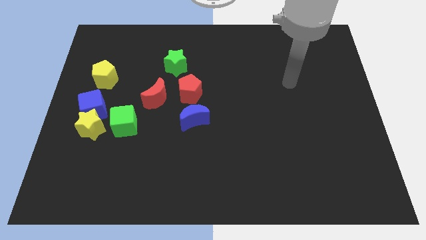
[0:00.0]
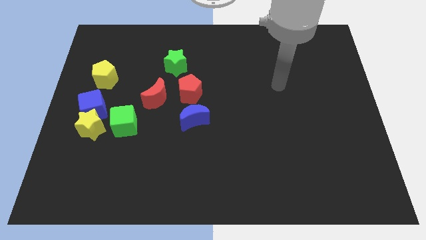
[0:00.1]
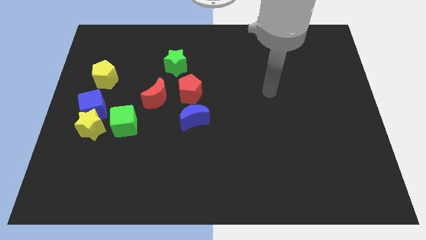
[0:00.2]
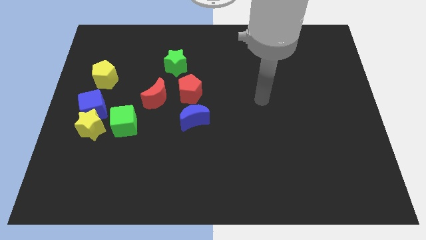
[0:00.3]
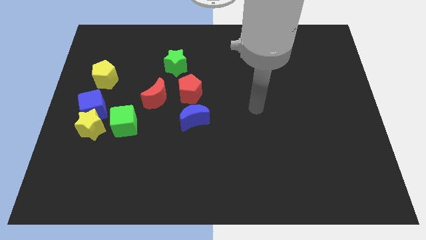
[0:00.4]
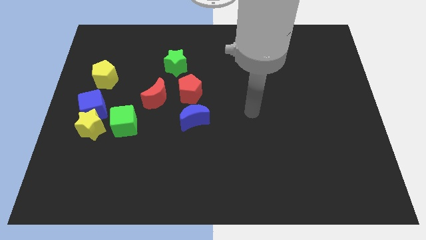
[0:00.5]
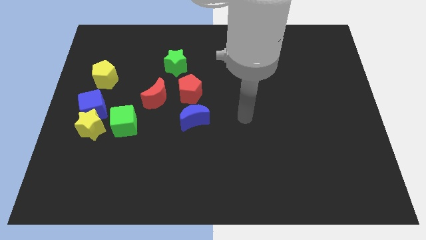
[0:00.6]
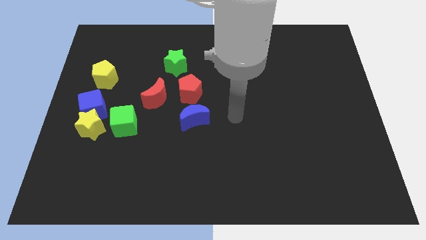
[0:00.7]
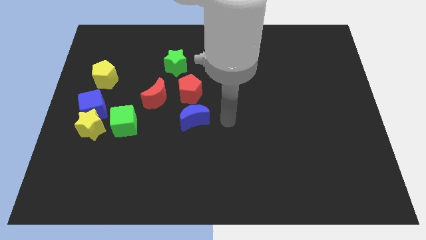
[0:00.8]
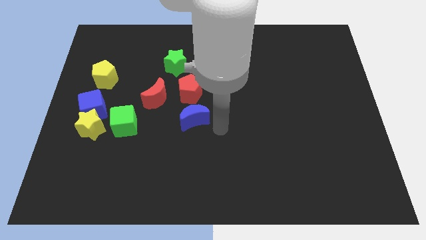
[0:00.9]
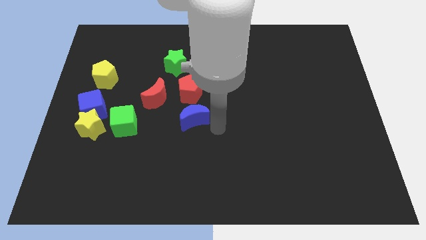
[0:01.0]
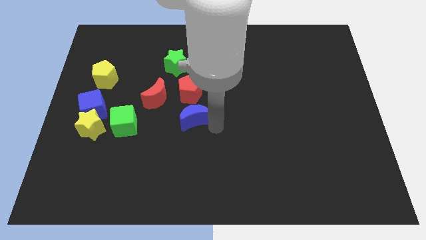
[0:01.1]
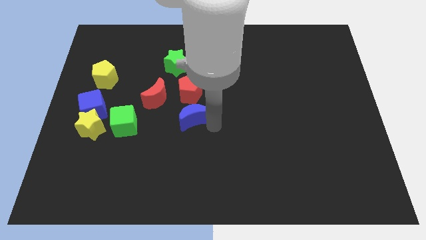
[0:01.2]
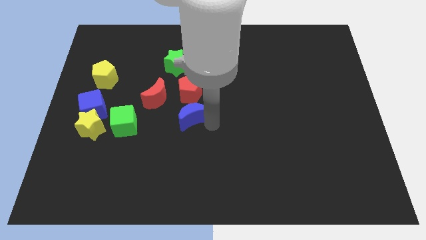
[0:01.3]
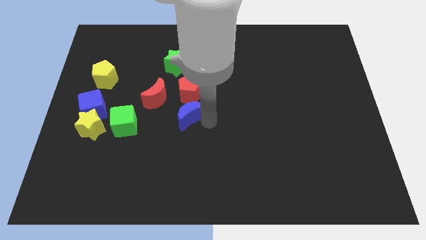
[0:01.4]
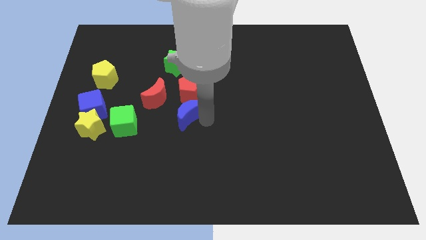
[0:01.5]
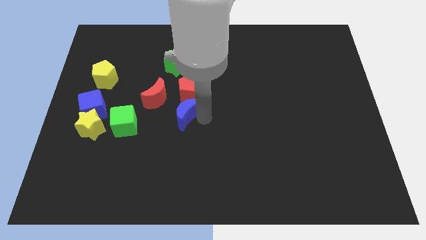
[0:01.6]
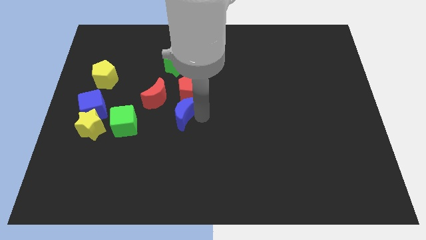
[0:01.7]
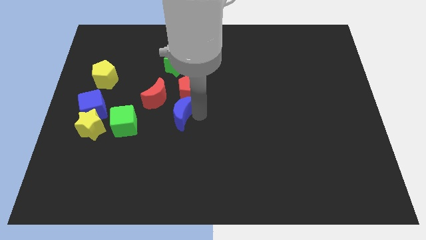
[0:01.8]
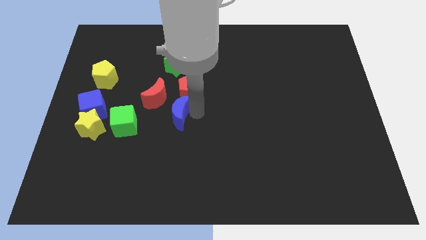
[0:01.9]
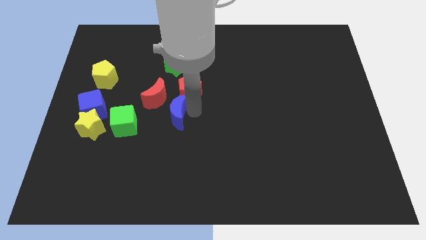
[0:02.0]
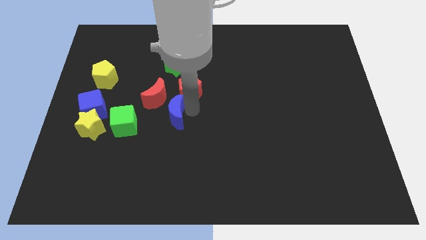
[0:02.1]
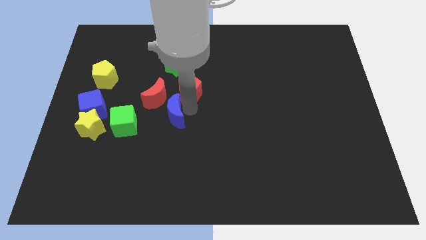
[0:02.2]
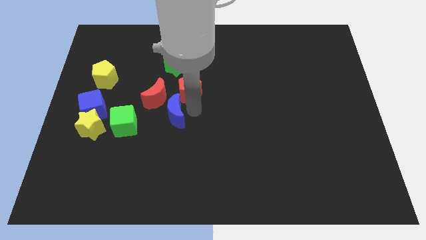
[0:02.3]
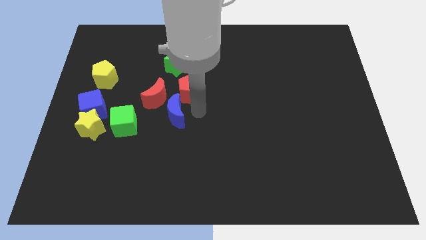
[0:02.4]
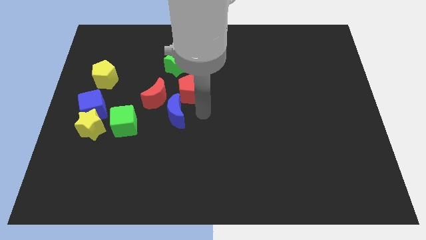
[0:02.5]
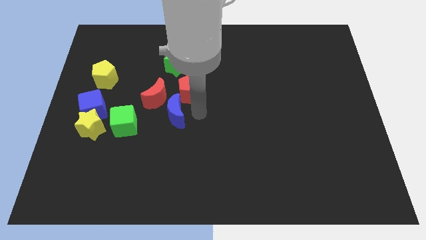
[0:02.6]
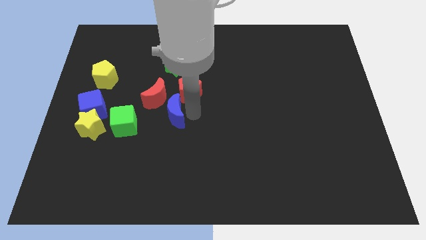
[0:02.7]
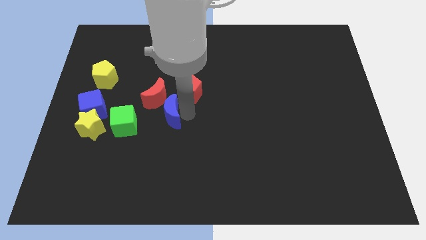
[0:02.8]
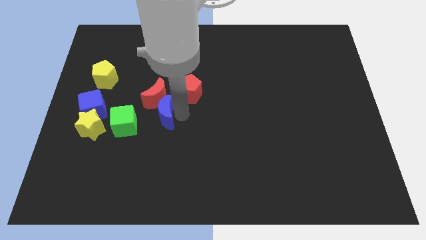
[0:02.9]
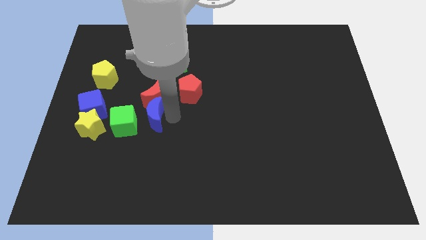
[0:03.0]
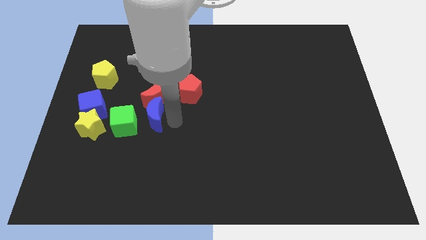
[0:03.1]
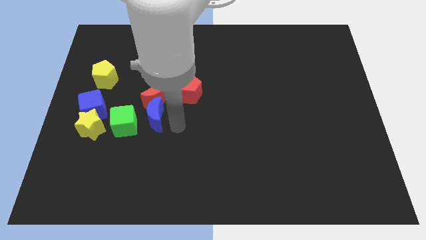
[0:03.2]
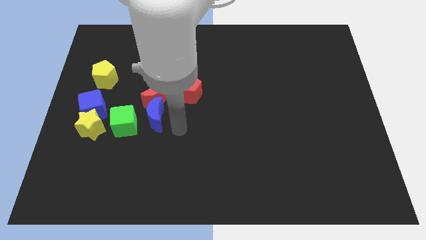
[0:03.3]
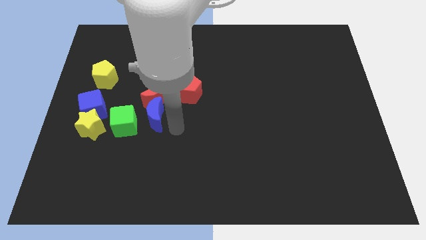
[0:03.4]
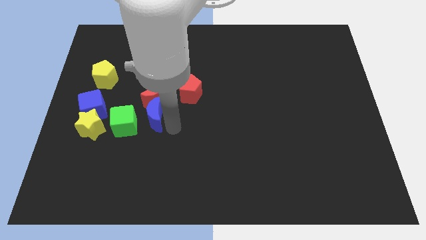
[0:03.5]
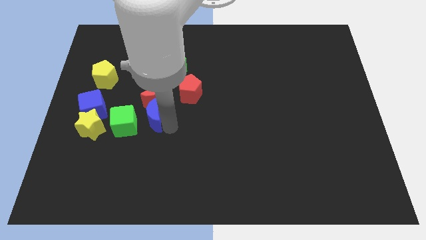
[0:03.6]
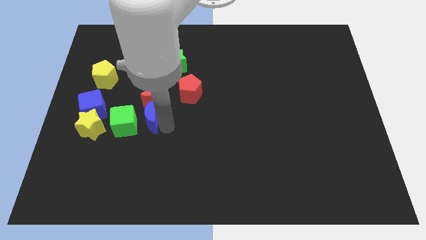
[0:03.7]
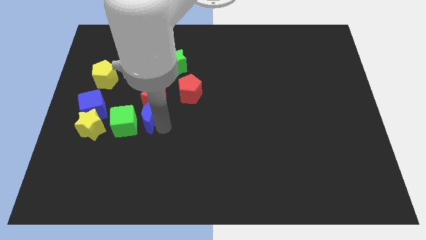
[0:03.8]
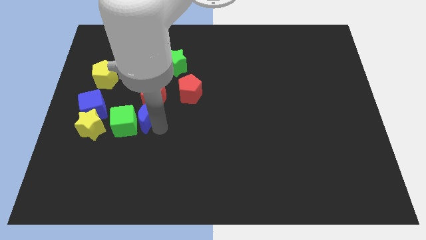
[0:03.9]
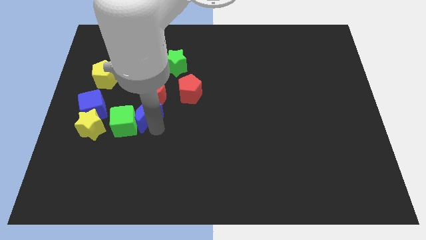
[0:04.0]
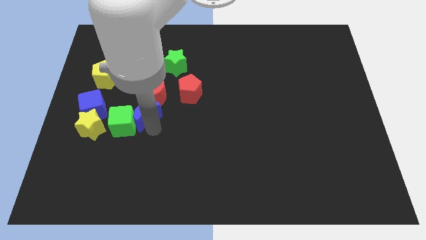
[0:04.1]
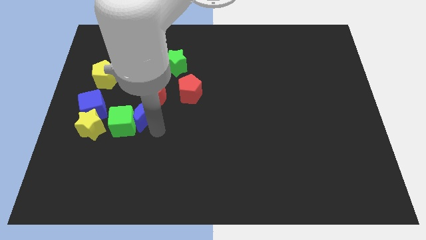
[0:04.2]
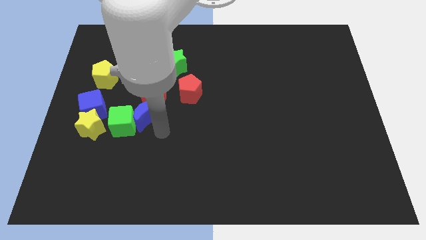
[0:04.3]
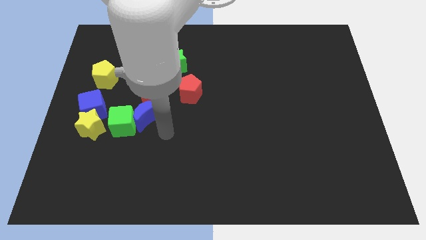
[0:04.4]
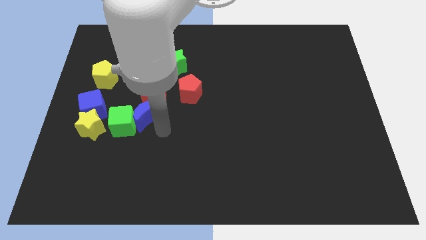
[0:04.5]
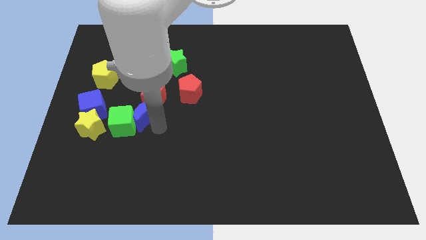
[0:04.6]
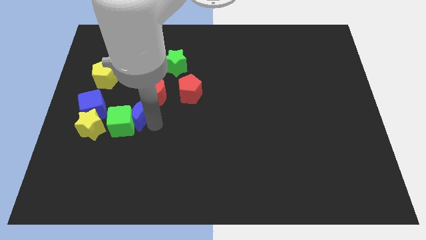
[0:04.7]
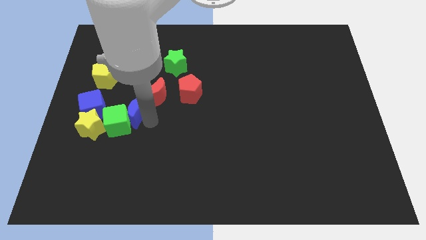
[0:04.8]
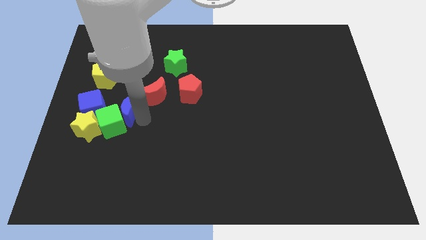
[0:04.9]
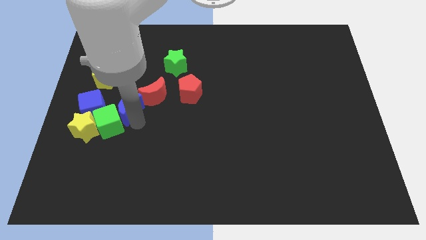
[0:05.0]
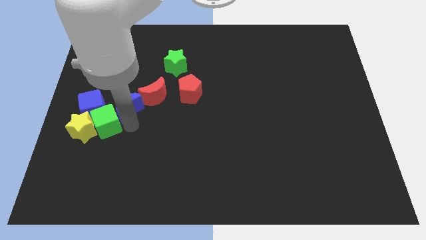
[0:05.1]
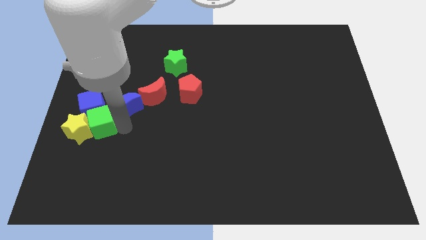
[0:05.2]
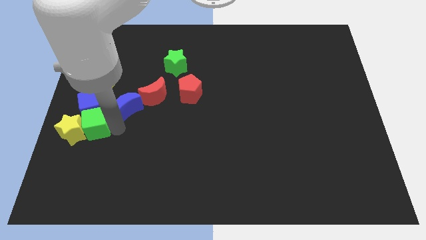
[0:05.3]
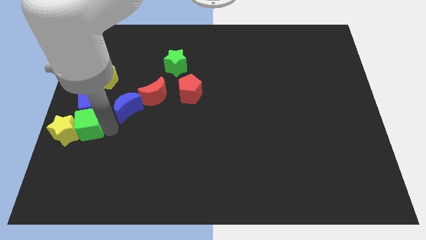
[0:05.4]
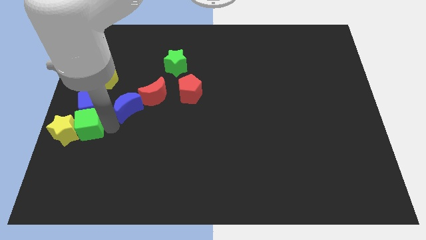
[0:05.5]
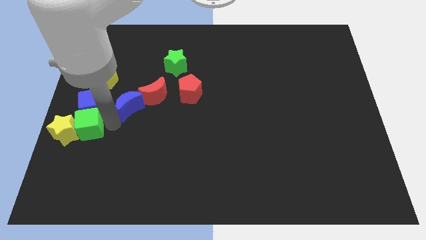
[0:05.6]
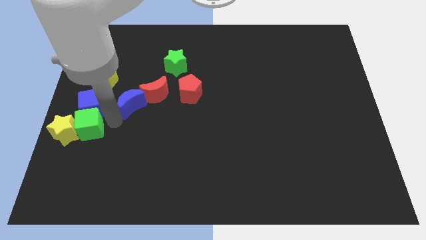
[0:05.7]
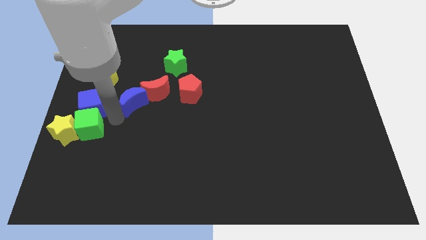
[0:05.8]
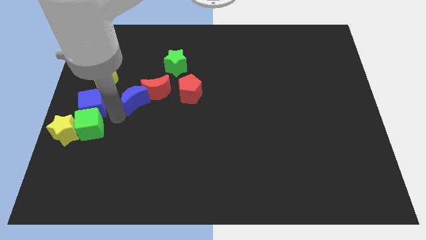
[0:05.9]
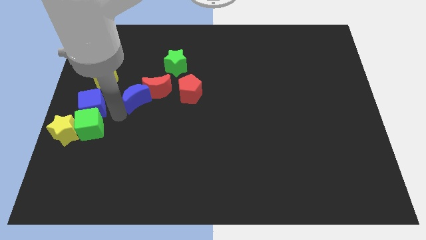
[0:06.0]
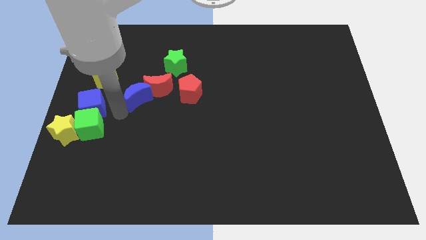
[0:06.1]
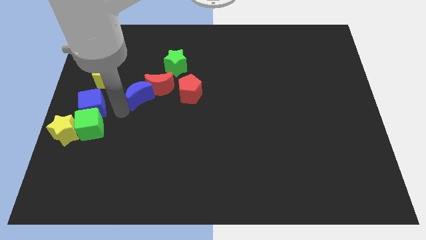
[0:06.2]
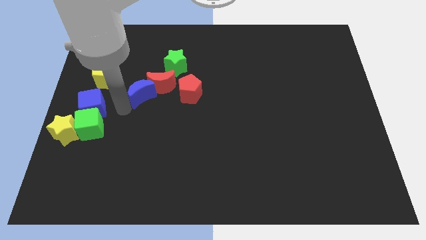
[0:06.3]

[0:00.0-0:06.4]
move the blue moon to the bottom left side of the green star
